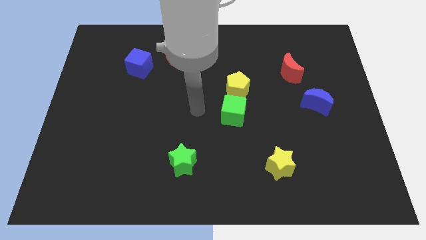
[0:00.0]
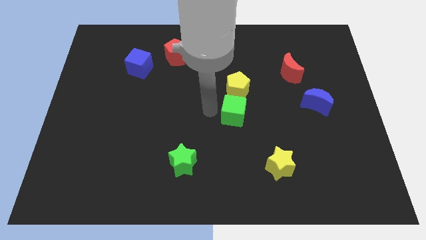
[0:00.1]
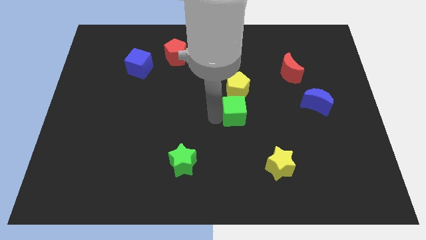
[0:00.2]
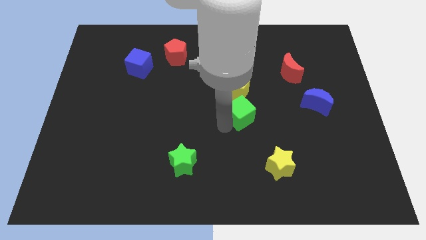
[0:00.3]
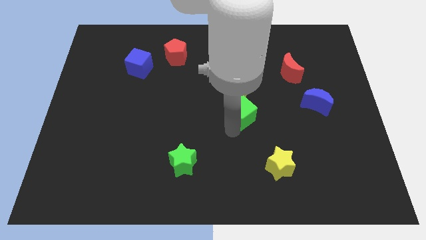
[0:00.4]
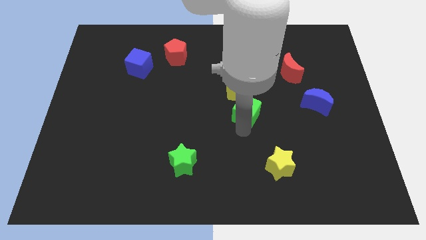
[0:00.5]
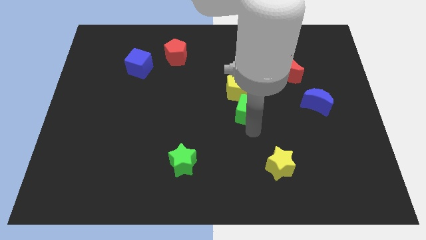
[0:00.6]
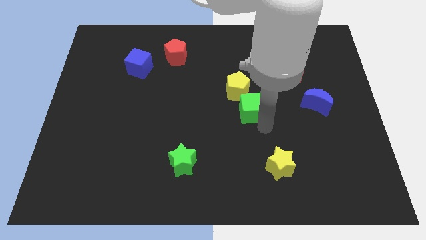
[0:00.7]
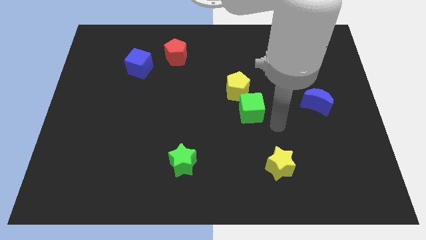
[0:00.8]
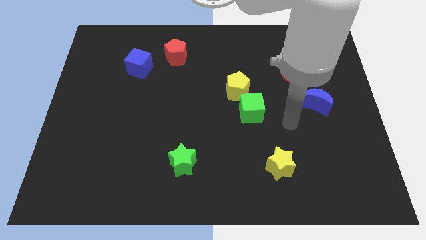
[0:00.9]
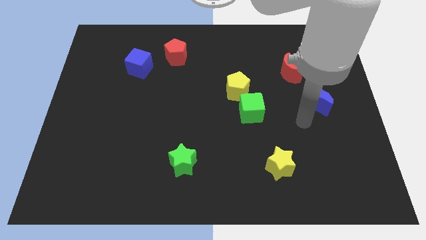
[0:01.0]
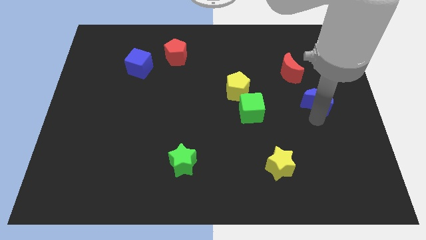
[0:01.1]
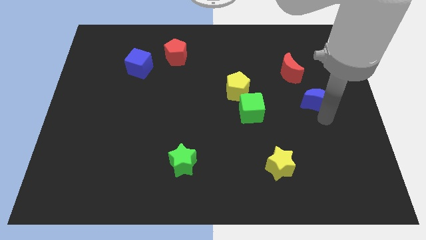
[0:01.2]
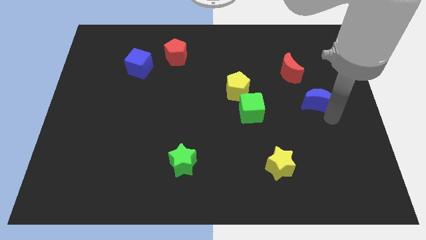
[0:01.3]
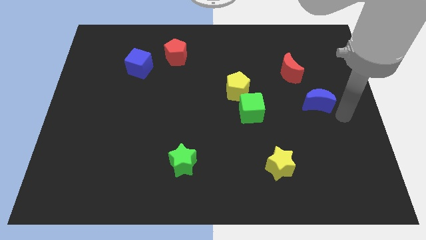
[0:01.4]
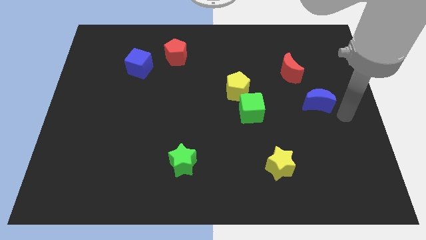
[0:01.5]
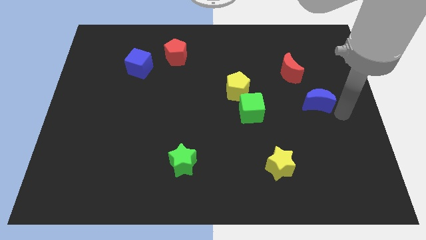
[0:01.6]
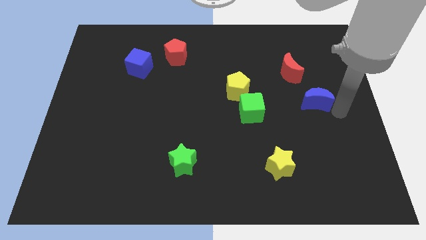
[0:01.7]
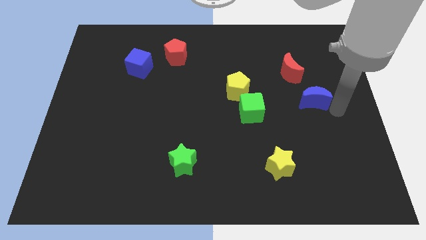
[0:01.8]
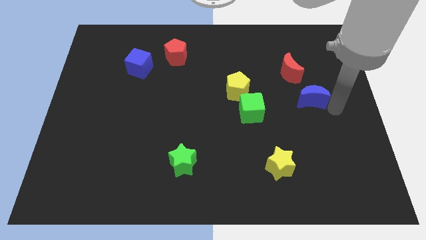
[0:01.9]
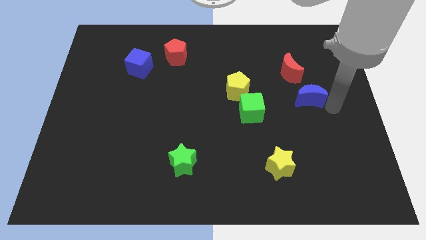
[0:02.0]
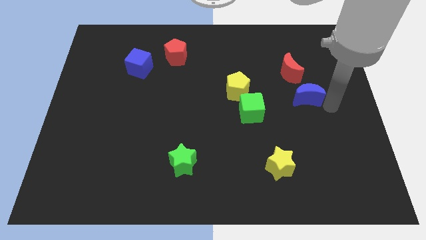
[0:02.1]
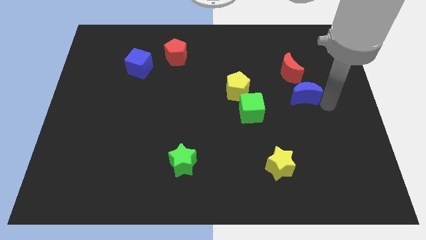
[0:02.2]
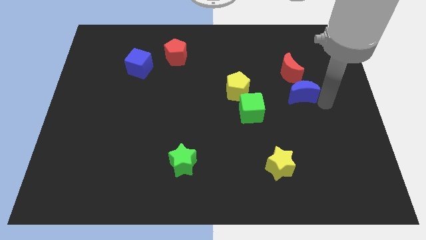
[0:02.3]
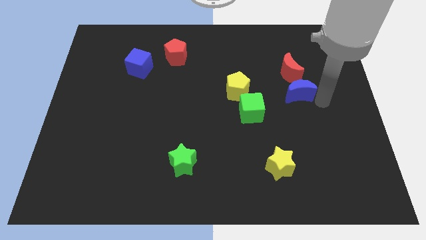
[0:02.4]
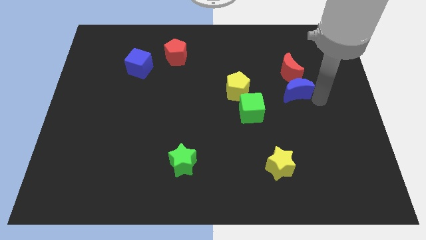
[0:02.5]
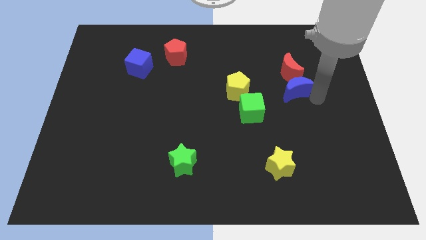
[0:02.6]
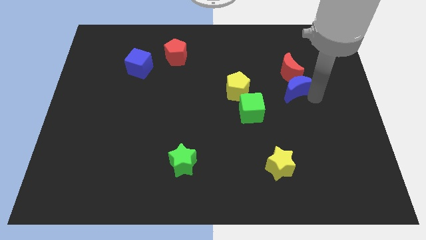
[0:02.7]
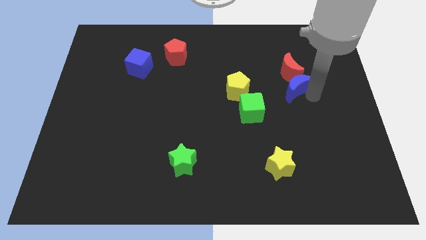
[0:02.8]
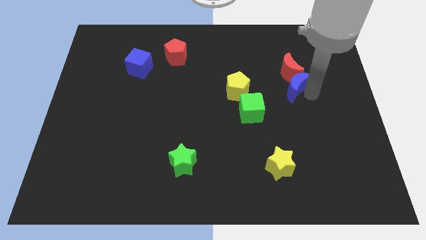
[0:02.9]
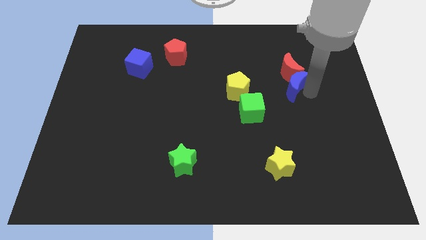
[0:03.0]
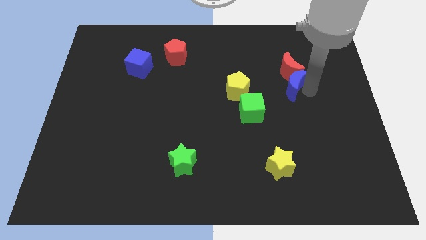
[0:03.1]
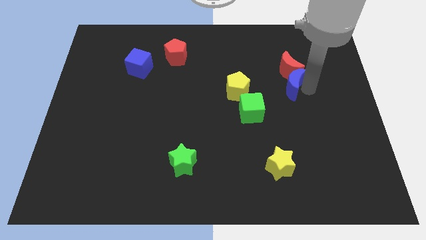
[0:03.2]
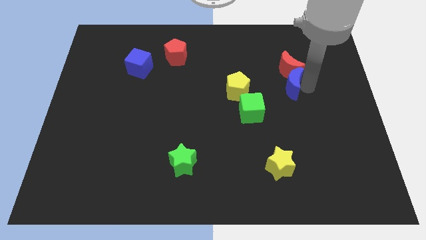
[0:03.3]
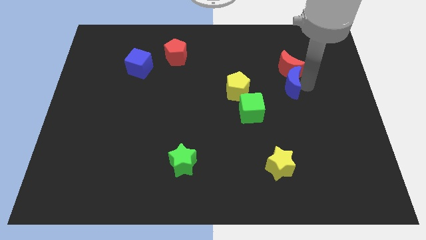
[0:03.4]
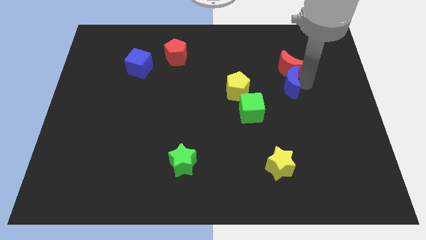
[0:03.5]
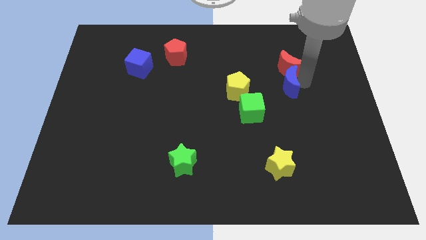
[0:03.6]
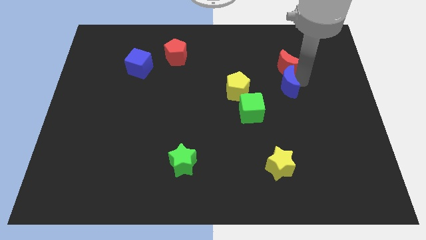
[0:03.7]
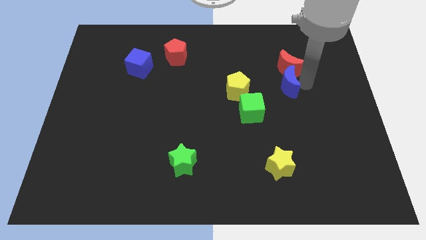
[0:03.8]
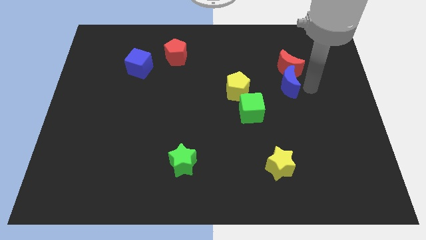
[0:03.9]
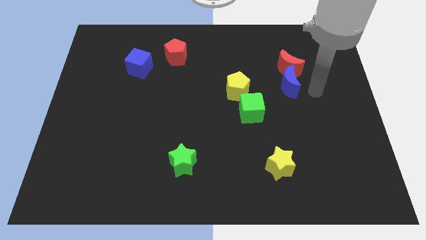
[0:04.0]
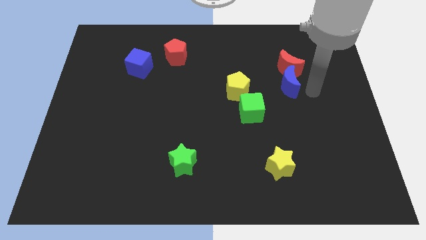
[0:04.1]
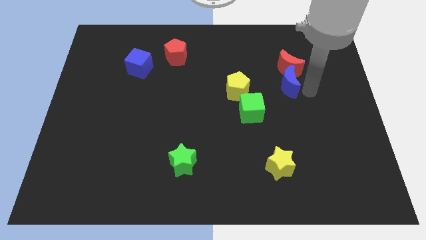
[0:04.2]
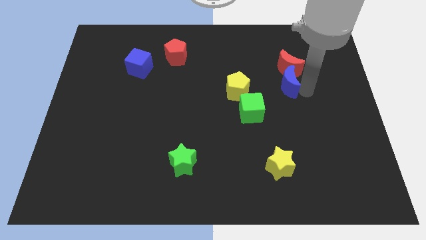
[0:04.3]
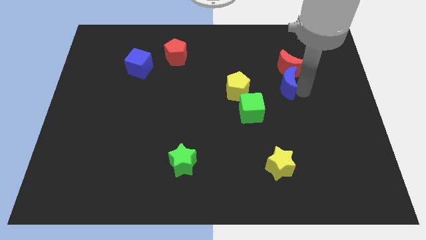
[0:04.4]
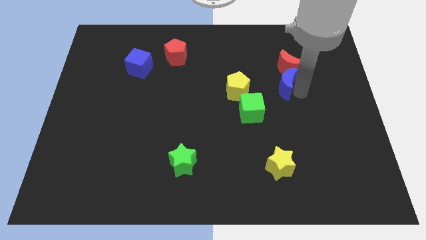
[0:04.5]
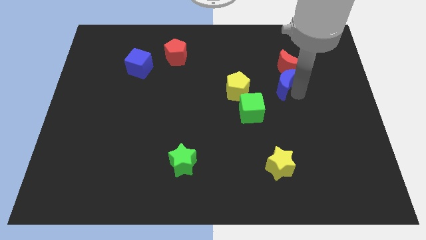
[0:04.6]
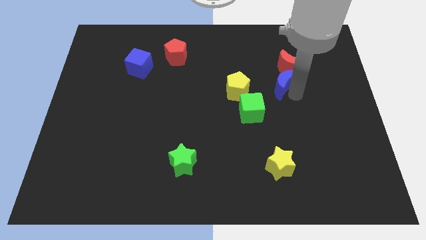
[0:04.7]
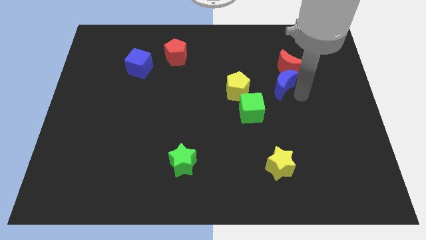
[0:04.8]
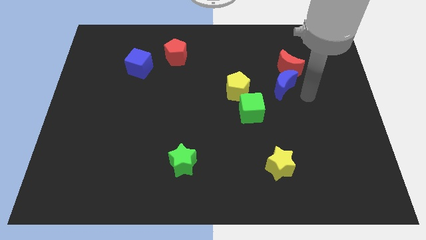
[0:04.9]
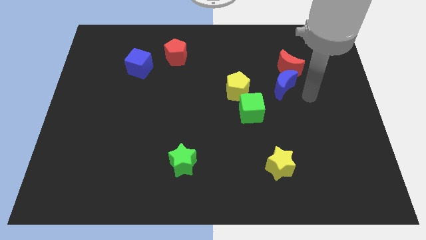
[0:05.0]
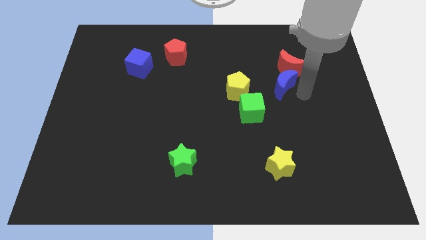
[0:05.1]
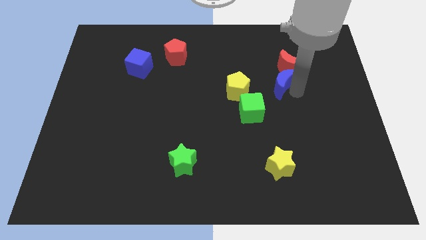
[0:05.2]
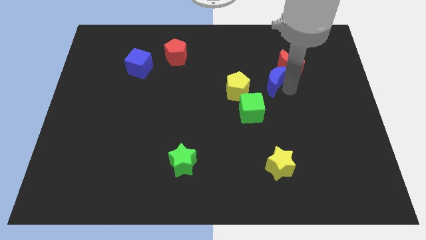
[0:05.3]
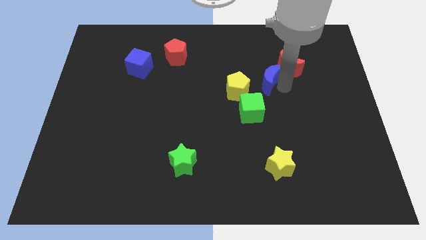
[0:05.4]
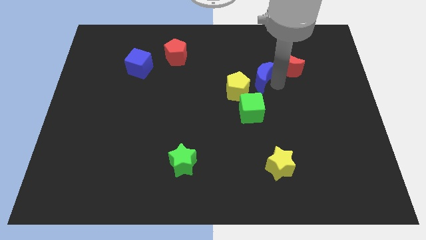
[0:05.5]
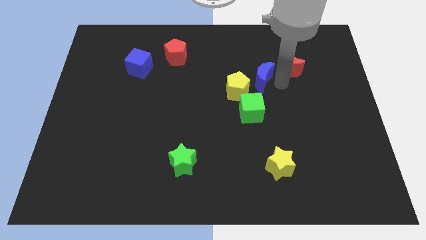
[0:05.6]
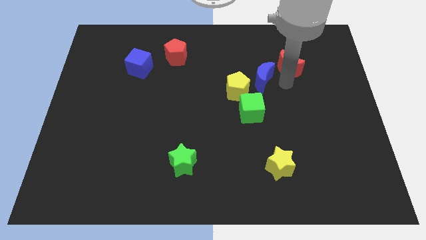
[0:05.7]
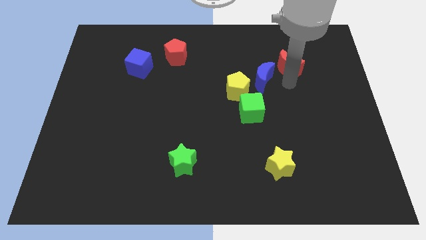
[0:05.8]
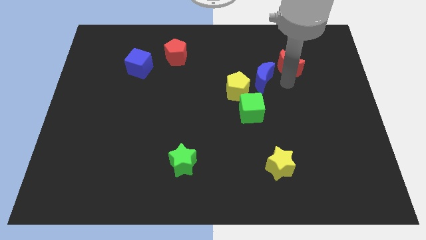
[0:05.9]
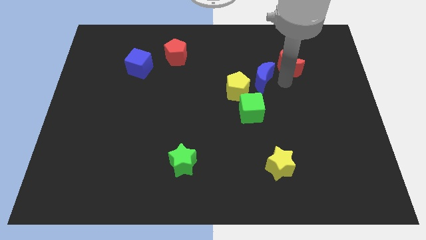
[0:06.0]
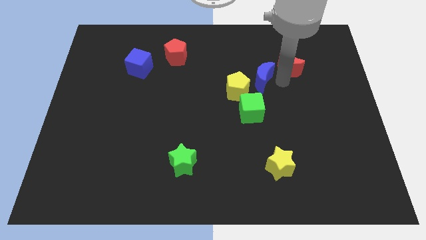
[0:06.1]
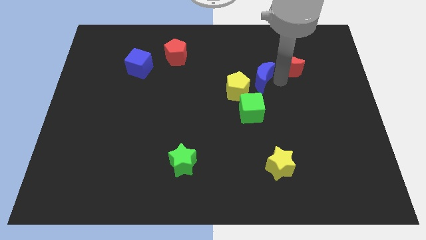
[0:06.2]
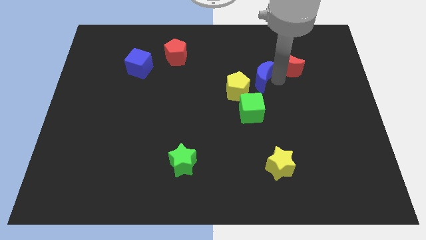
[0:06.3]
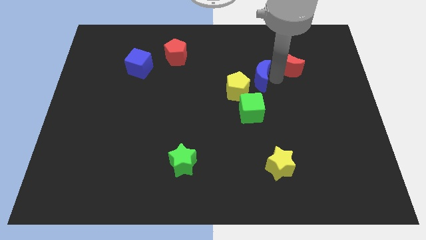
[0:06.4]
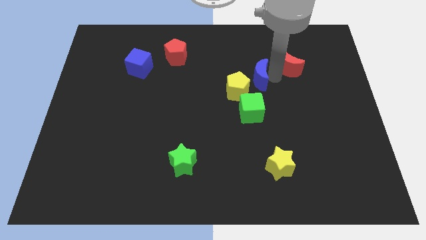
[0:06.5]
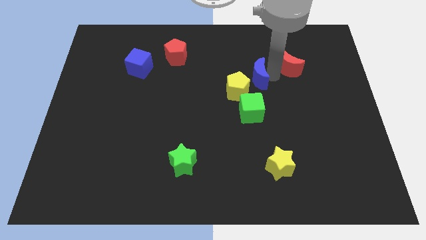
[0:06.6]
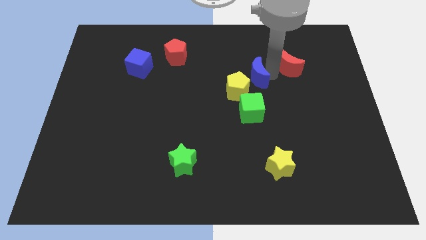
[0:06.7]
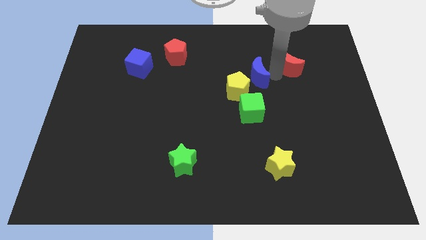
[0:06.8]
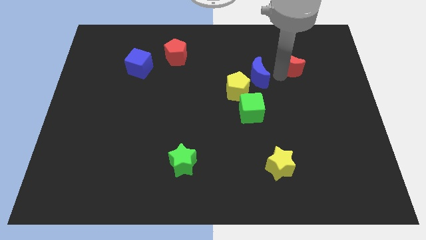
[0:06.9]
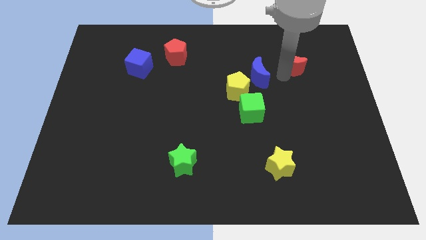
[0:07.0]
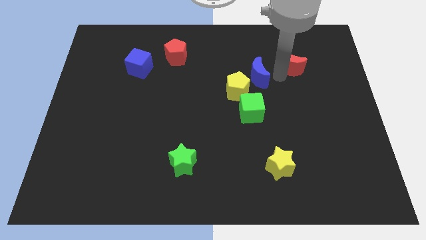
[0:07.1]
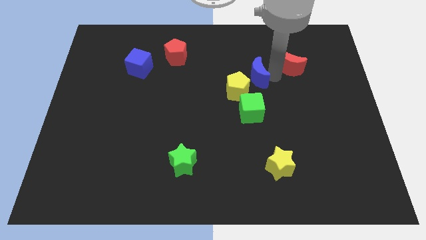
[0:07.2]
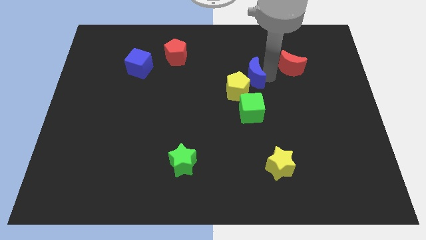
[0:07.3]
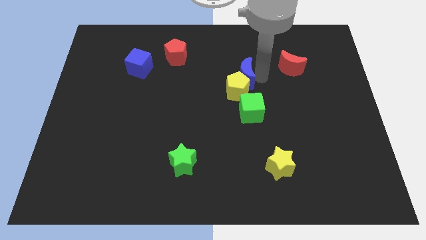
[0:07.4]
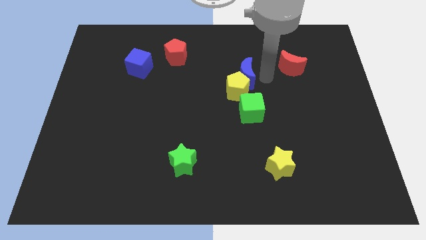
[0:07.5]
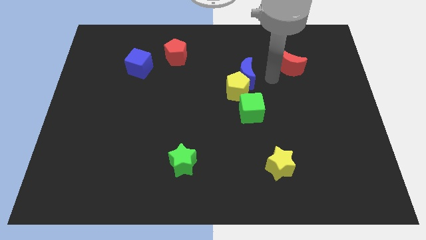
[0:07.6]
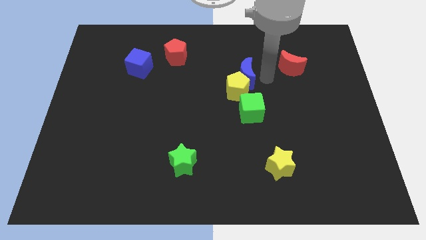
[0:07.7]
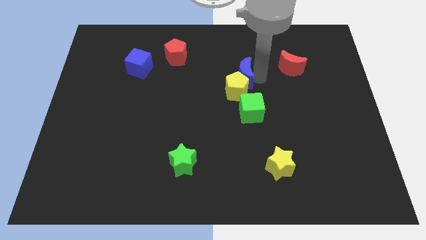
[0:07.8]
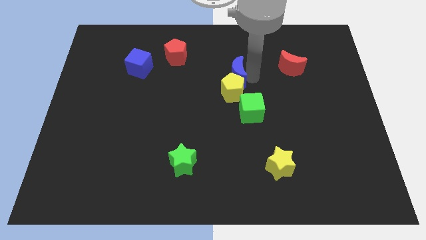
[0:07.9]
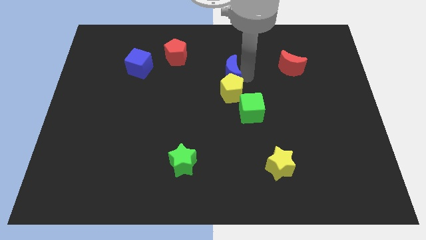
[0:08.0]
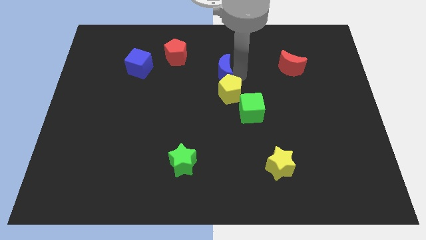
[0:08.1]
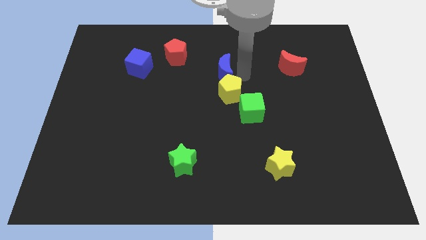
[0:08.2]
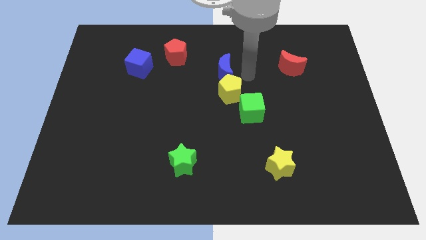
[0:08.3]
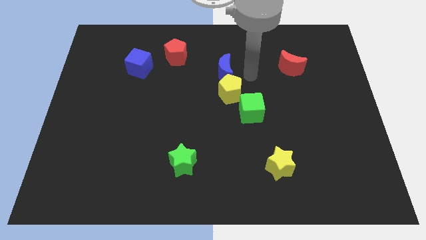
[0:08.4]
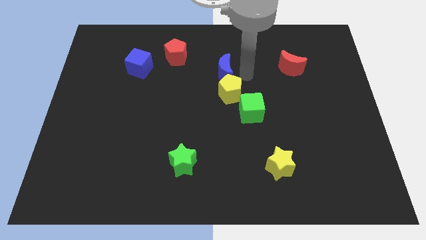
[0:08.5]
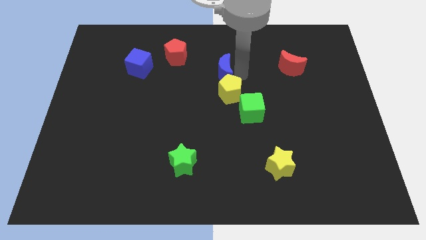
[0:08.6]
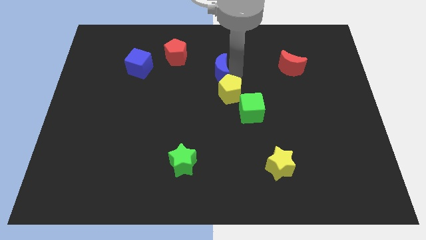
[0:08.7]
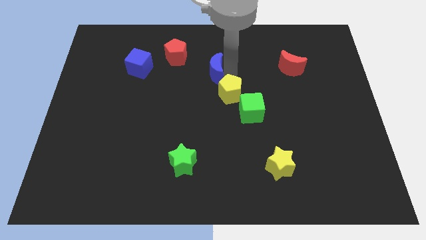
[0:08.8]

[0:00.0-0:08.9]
slide the blue moon to the bottom right side of the red pentagon
